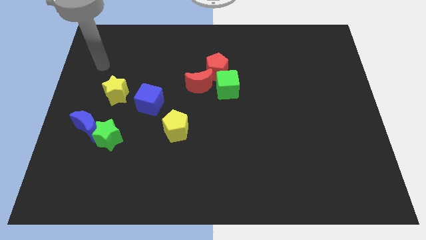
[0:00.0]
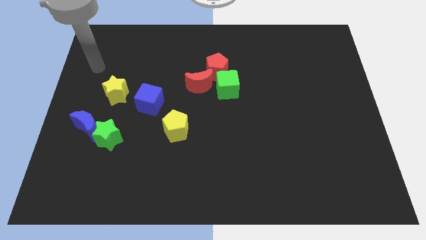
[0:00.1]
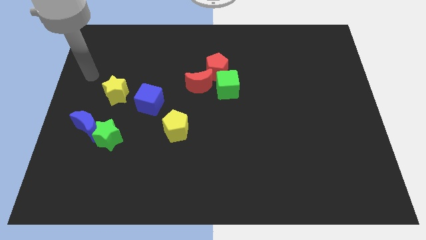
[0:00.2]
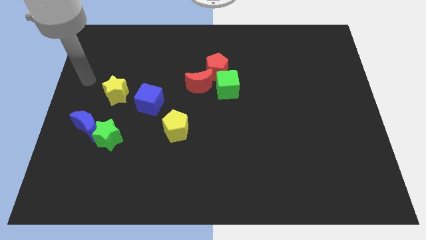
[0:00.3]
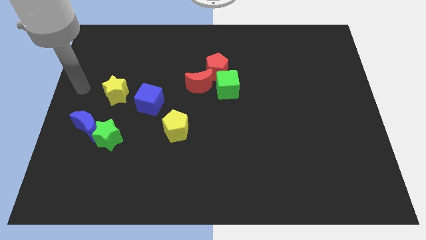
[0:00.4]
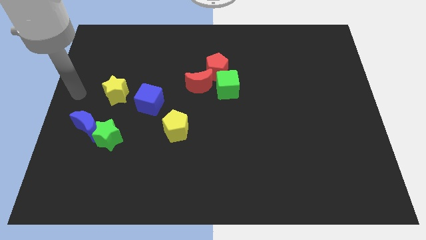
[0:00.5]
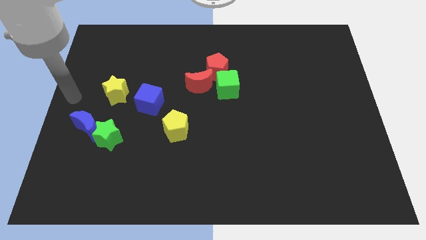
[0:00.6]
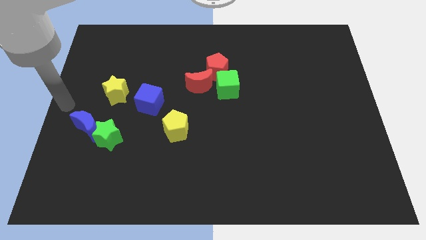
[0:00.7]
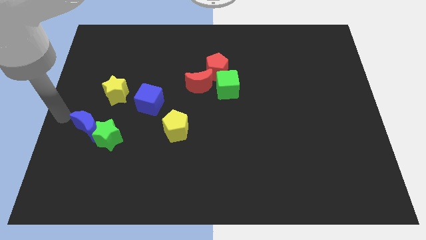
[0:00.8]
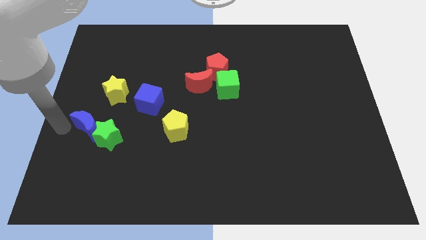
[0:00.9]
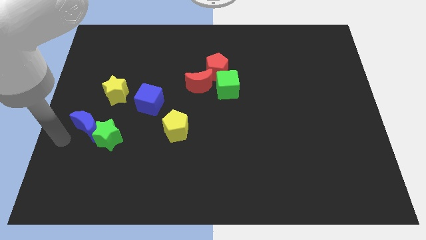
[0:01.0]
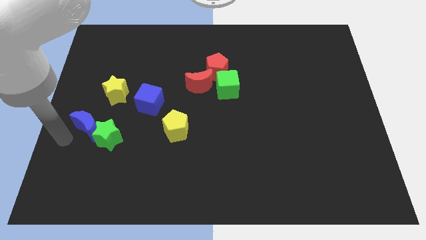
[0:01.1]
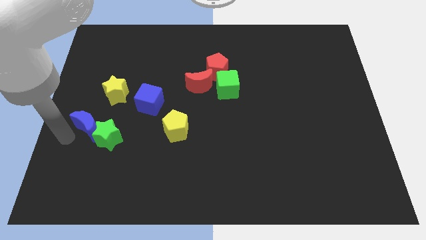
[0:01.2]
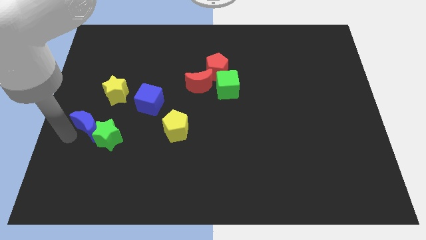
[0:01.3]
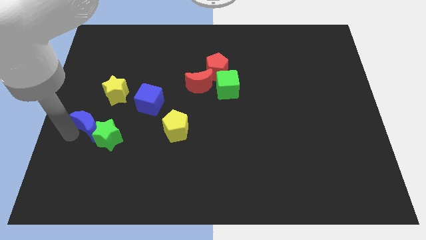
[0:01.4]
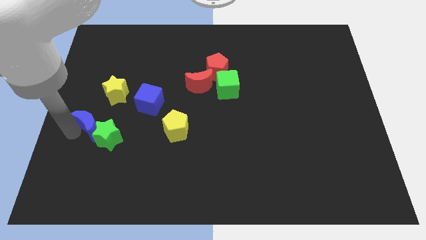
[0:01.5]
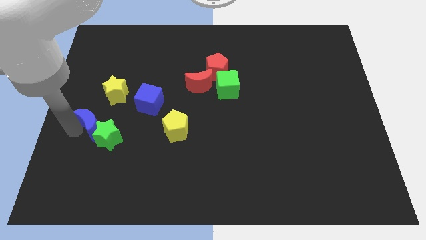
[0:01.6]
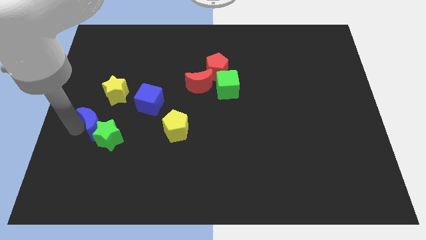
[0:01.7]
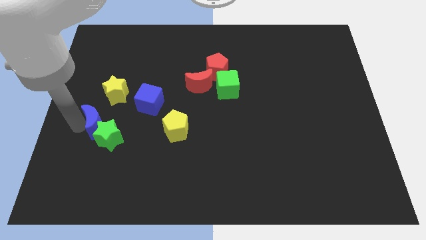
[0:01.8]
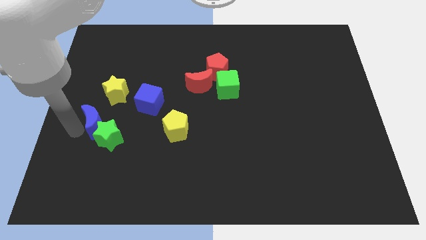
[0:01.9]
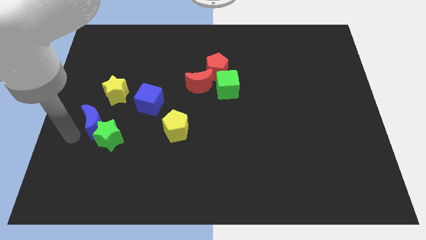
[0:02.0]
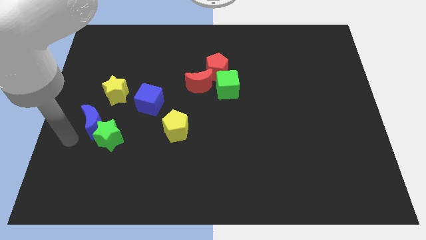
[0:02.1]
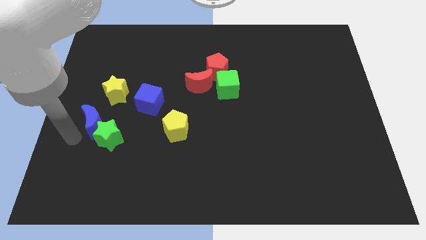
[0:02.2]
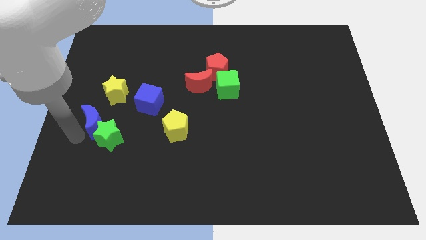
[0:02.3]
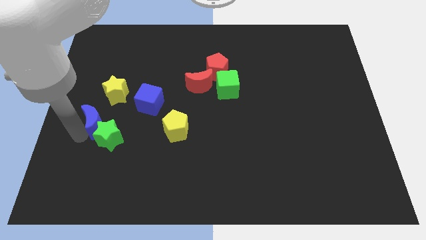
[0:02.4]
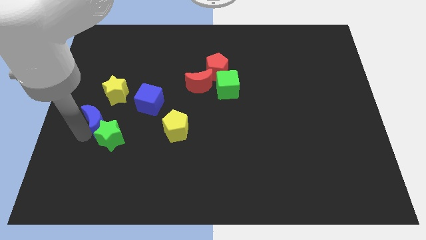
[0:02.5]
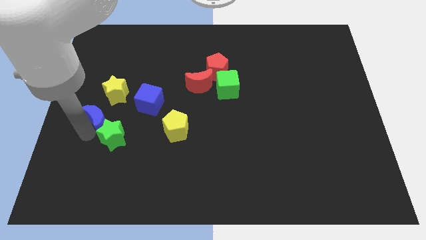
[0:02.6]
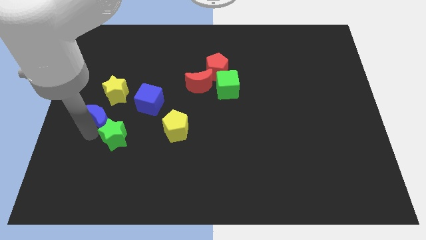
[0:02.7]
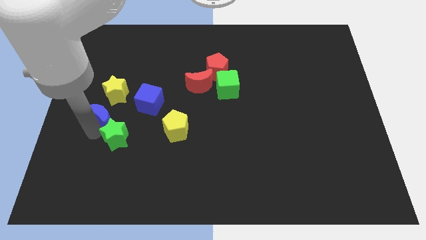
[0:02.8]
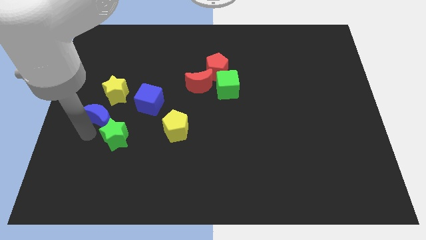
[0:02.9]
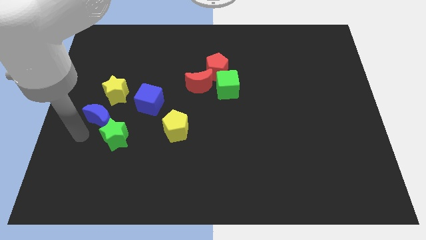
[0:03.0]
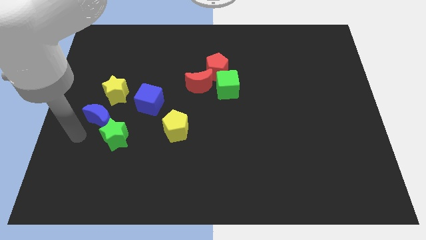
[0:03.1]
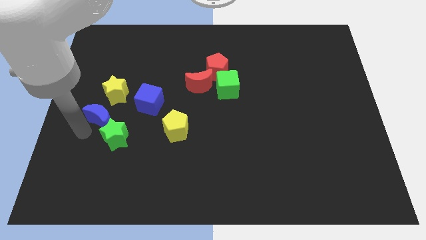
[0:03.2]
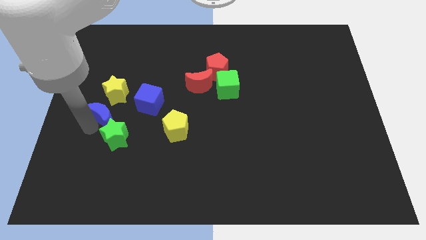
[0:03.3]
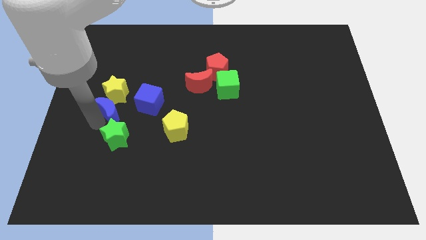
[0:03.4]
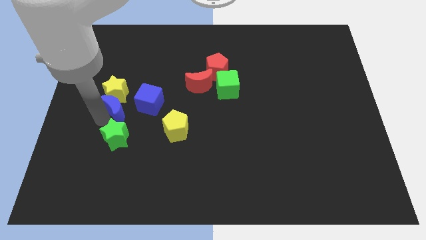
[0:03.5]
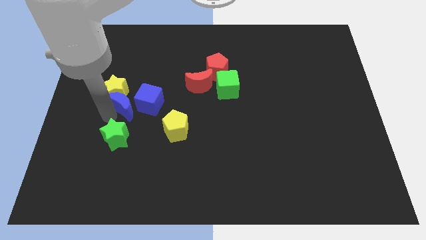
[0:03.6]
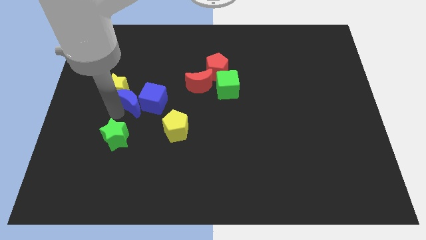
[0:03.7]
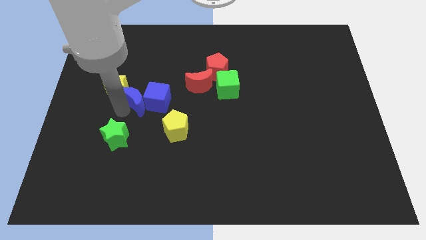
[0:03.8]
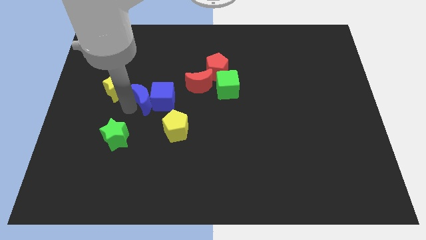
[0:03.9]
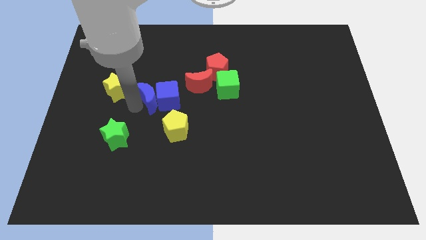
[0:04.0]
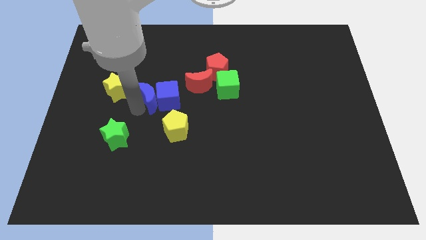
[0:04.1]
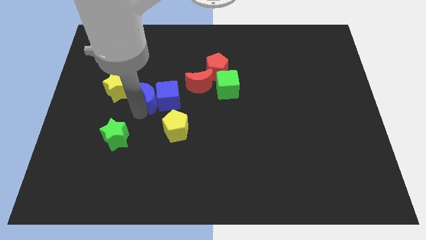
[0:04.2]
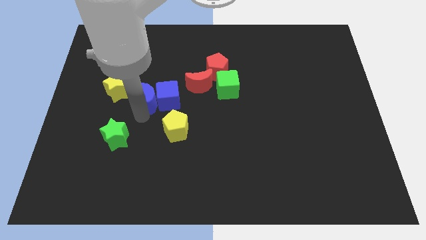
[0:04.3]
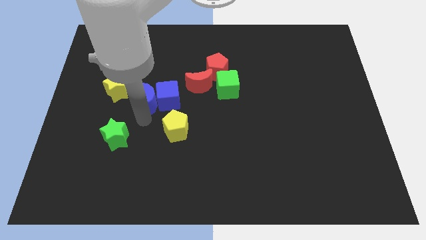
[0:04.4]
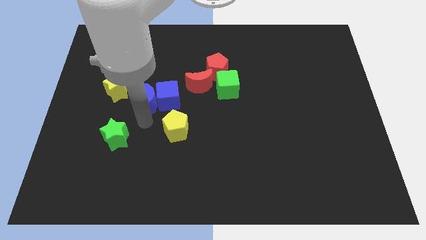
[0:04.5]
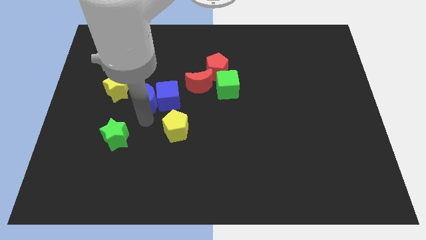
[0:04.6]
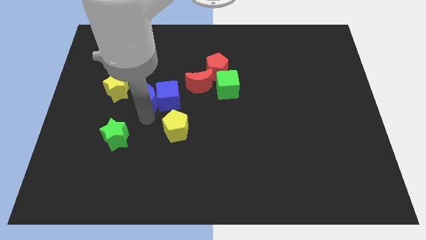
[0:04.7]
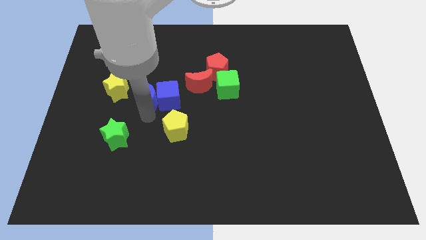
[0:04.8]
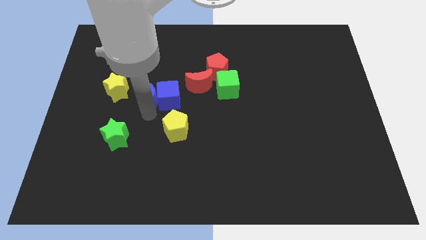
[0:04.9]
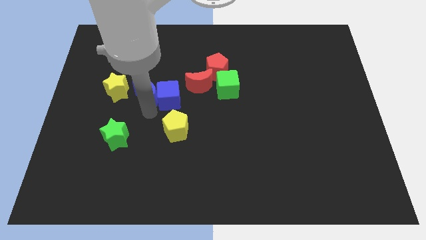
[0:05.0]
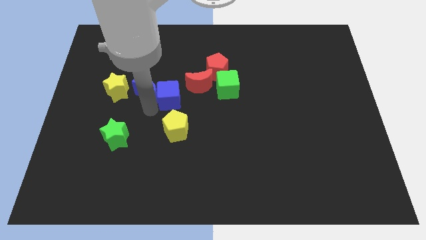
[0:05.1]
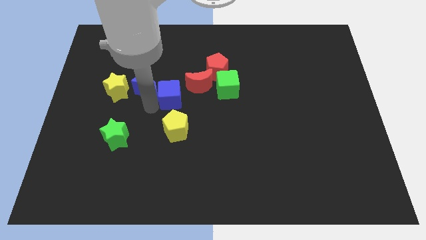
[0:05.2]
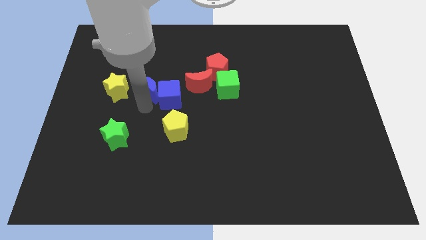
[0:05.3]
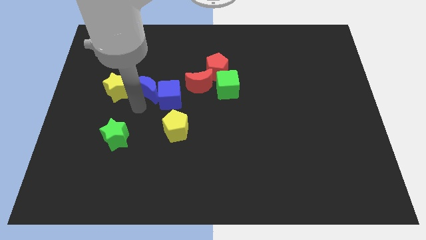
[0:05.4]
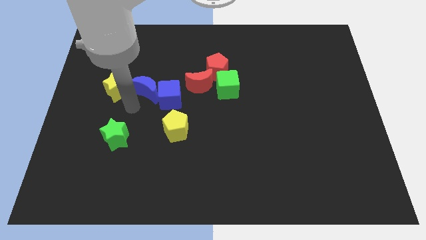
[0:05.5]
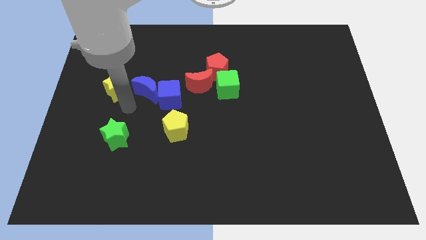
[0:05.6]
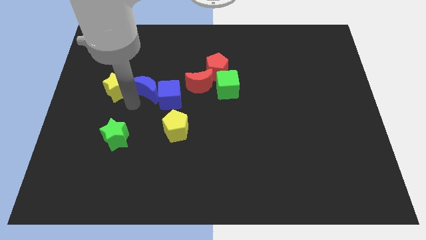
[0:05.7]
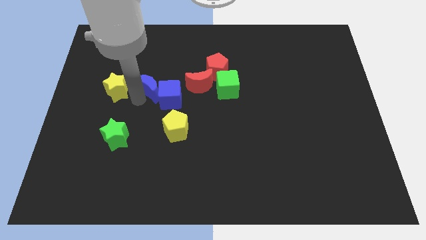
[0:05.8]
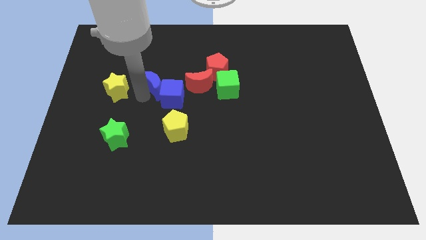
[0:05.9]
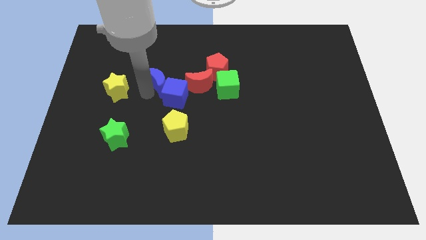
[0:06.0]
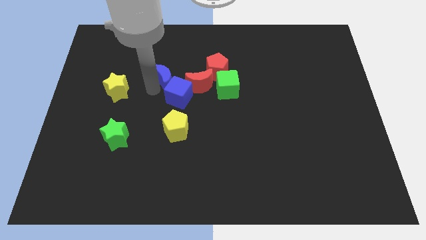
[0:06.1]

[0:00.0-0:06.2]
move the blue moon upwards and to the right

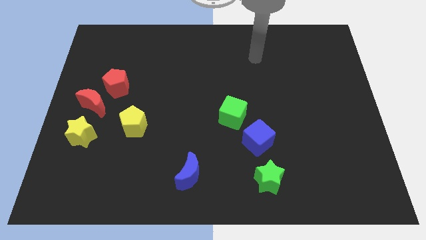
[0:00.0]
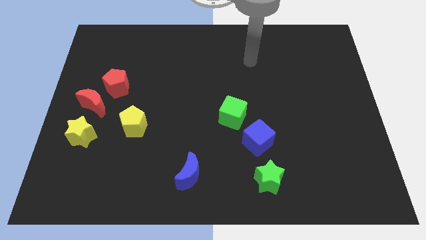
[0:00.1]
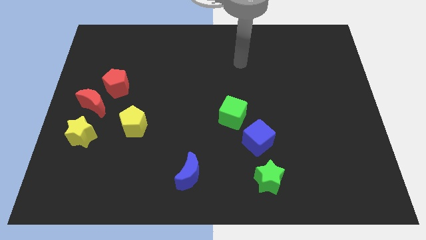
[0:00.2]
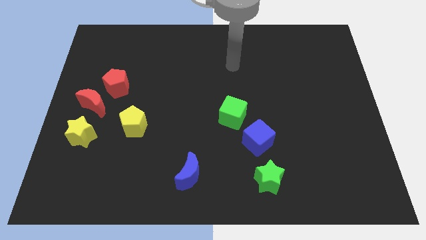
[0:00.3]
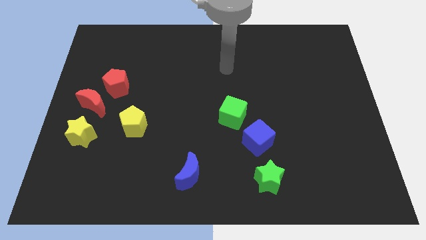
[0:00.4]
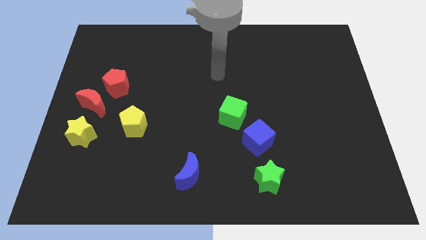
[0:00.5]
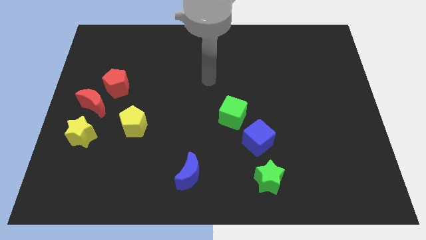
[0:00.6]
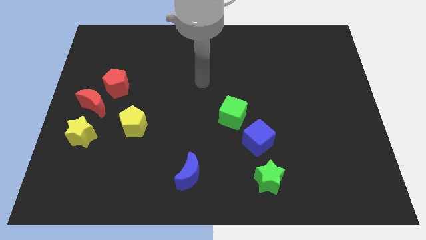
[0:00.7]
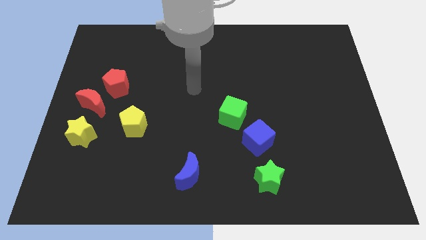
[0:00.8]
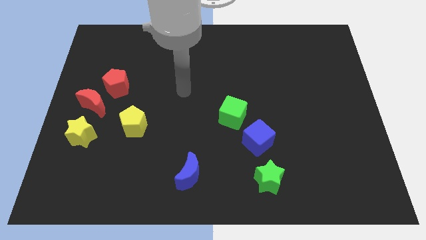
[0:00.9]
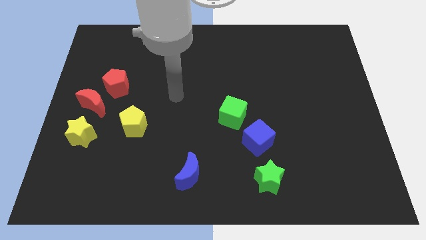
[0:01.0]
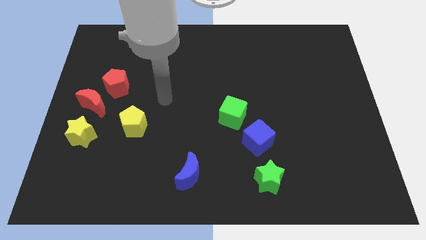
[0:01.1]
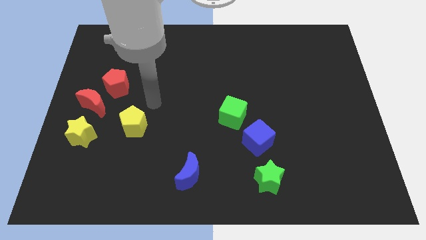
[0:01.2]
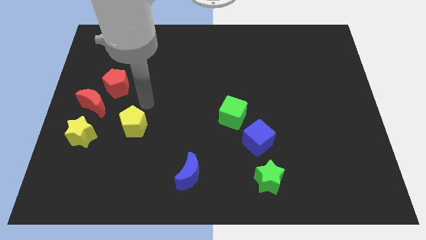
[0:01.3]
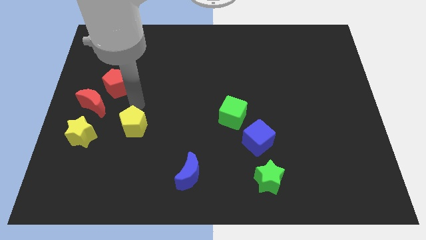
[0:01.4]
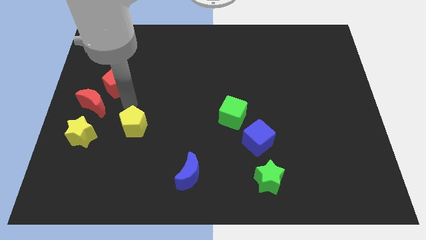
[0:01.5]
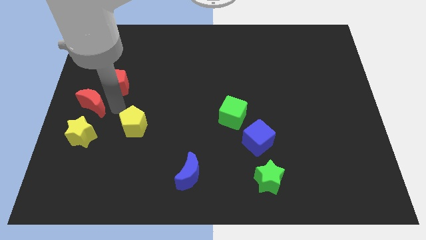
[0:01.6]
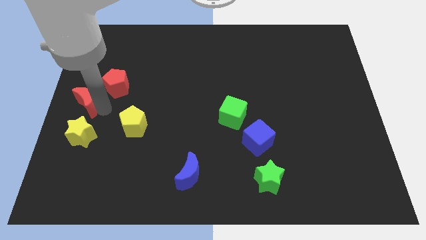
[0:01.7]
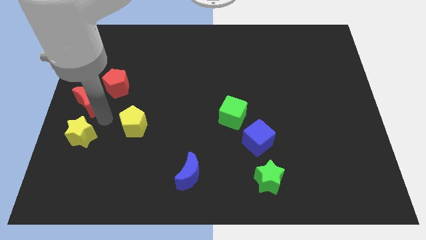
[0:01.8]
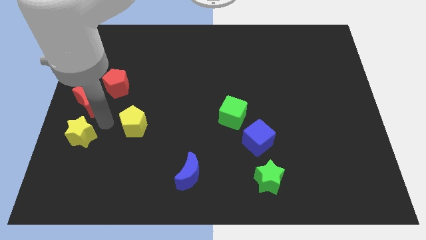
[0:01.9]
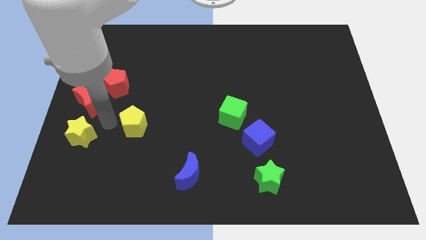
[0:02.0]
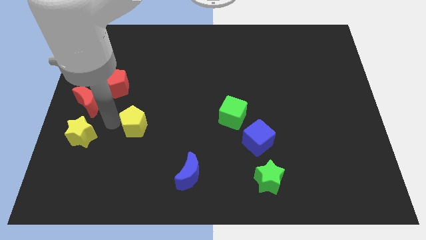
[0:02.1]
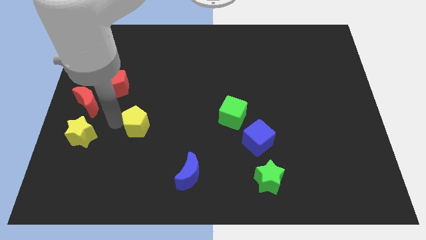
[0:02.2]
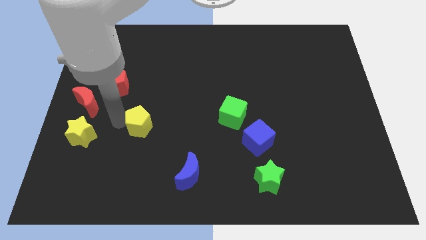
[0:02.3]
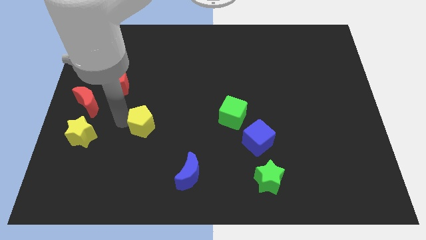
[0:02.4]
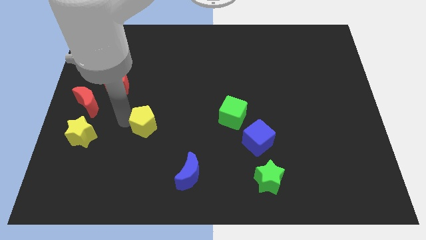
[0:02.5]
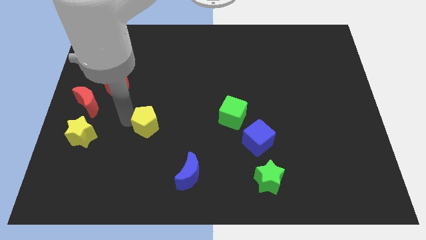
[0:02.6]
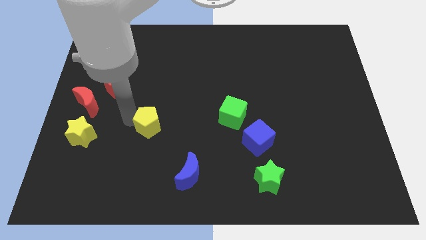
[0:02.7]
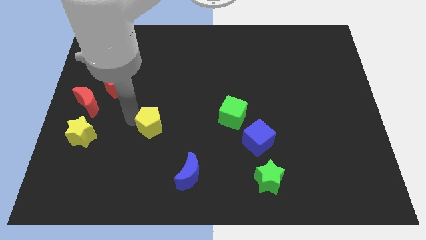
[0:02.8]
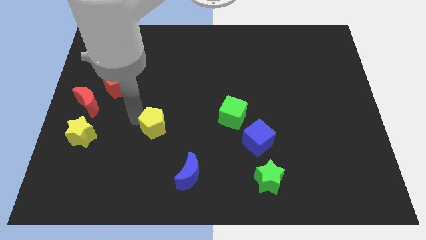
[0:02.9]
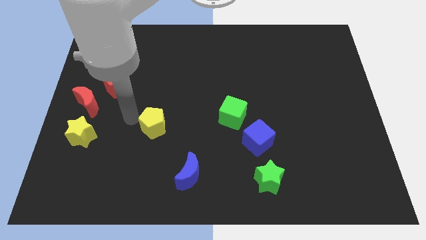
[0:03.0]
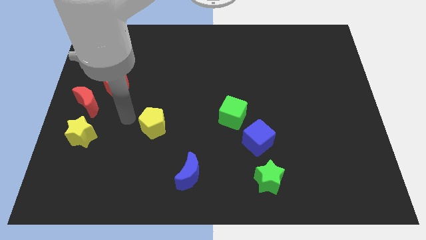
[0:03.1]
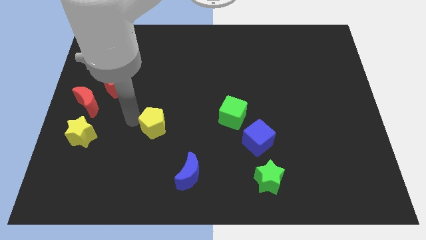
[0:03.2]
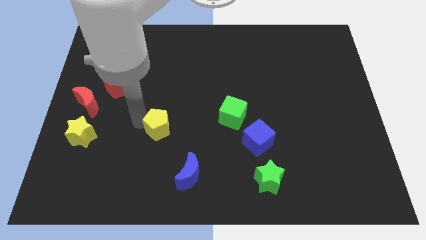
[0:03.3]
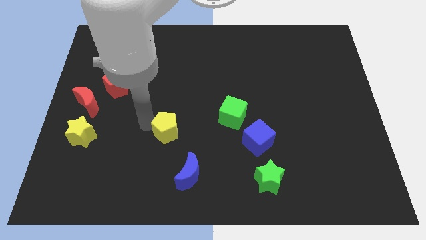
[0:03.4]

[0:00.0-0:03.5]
slightly push the yellow pentagon right
